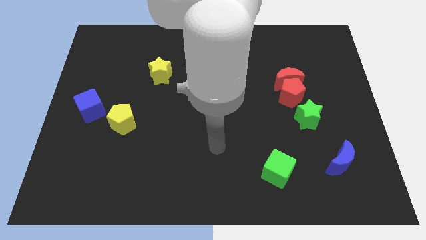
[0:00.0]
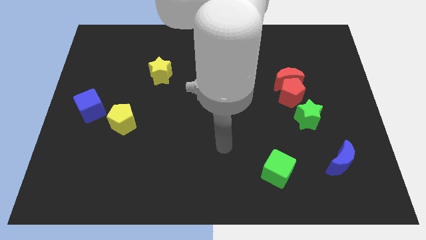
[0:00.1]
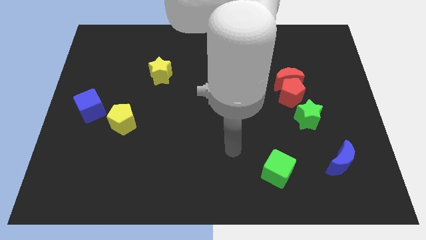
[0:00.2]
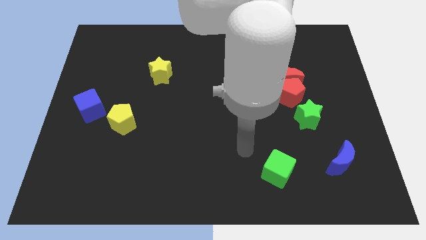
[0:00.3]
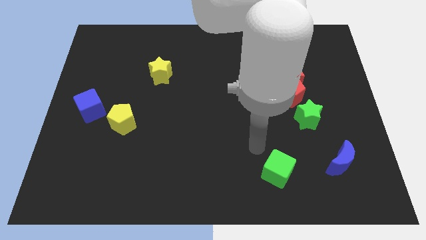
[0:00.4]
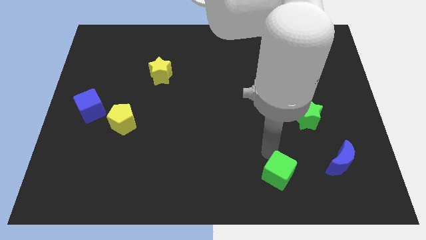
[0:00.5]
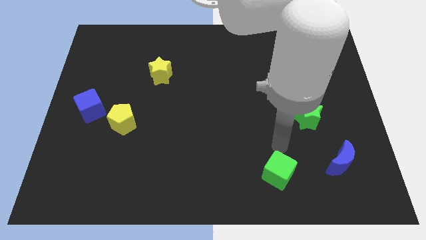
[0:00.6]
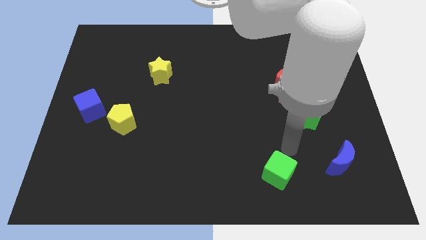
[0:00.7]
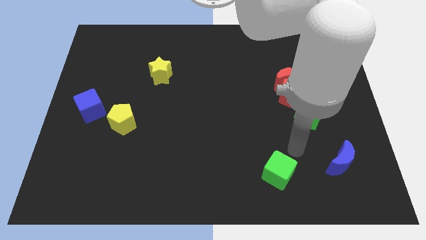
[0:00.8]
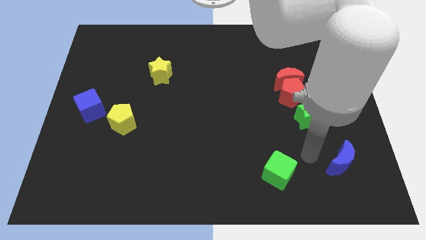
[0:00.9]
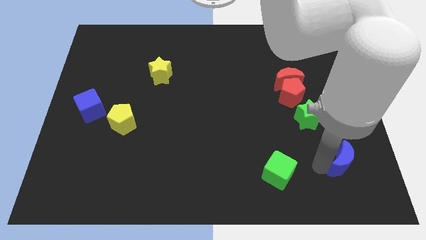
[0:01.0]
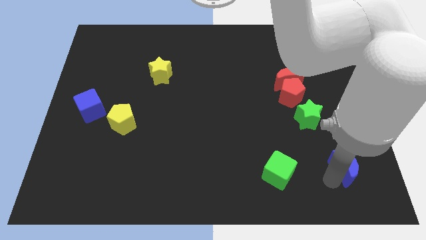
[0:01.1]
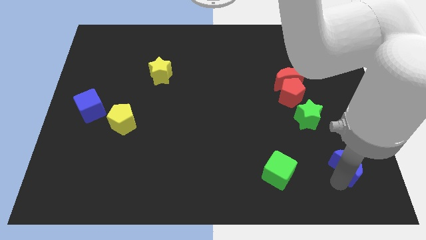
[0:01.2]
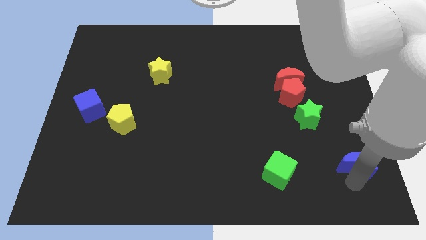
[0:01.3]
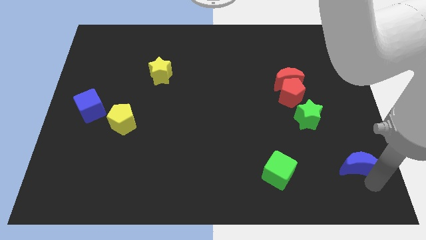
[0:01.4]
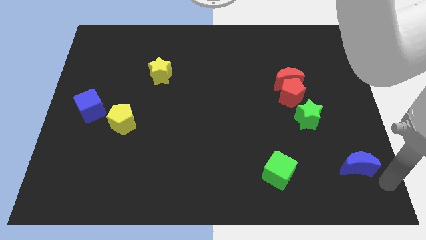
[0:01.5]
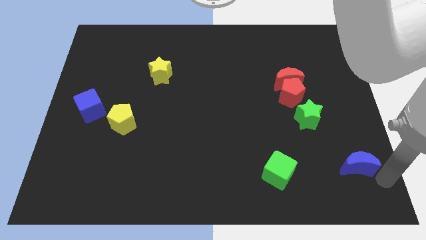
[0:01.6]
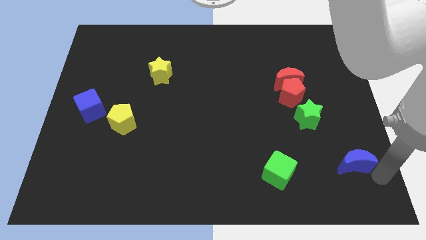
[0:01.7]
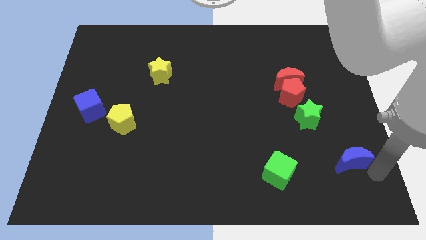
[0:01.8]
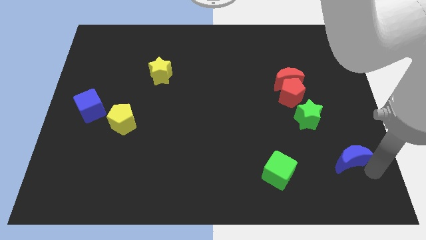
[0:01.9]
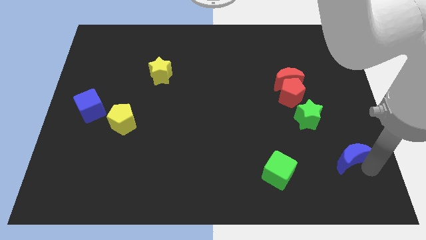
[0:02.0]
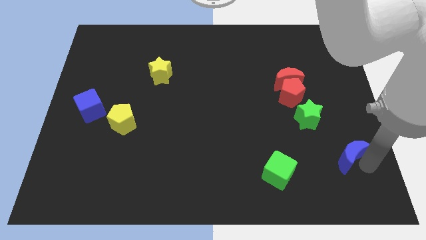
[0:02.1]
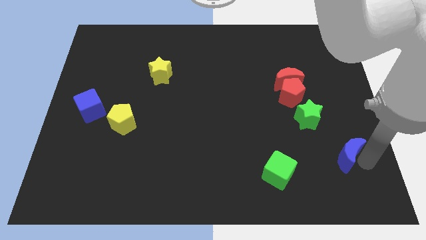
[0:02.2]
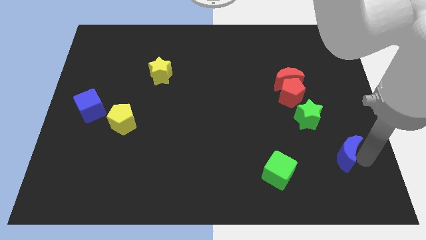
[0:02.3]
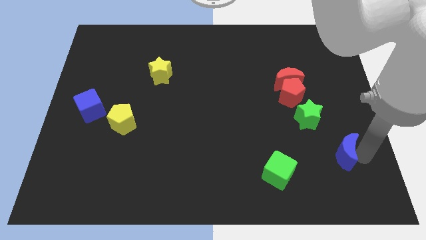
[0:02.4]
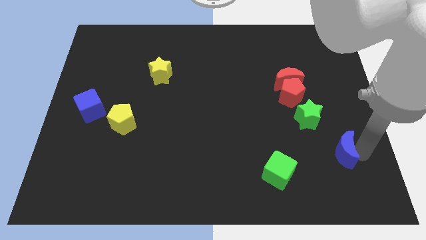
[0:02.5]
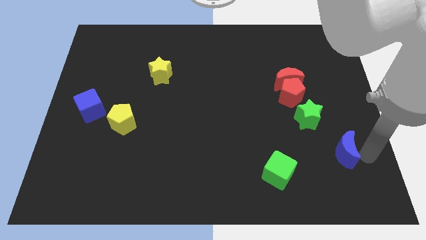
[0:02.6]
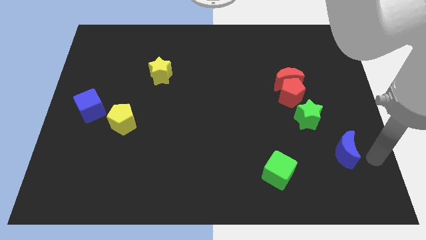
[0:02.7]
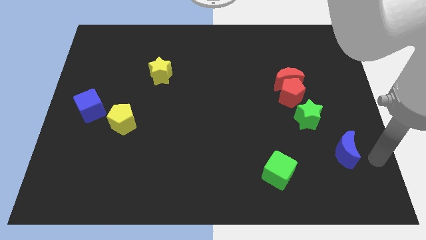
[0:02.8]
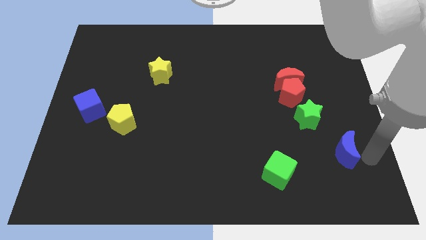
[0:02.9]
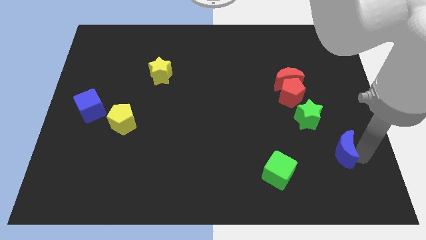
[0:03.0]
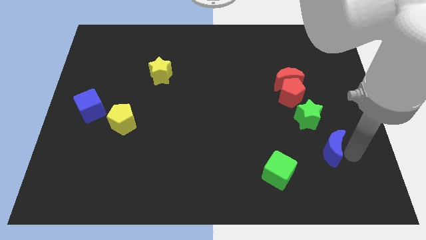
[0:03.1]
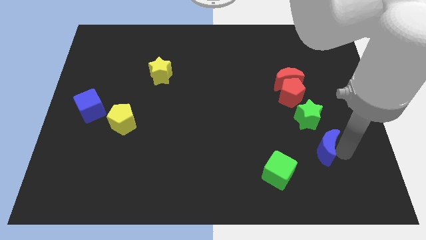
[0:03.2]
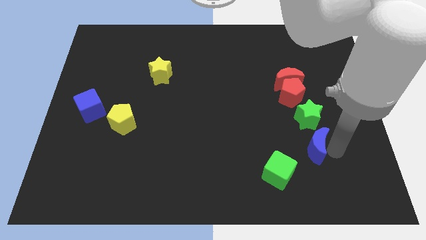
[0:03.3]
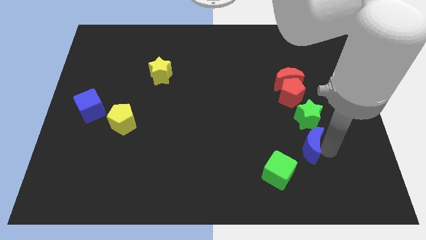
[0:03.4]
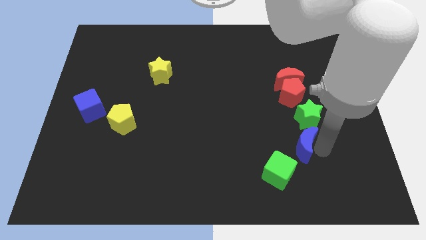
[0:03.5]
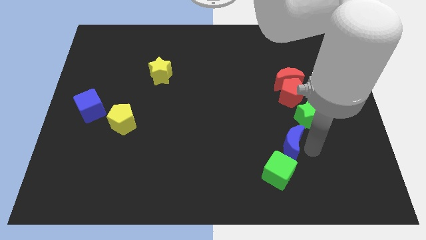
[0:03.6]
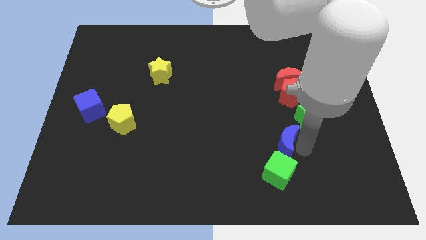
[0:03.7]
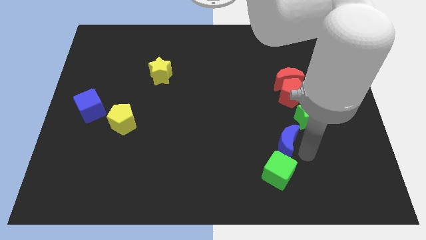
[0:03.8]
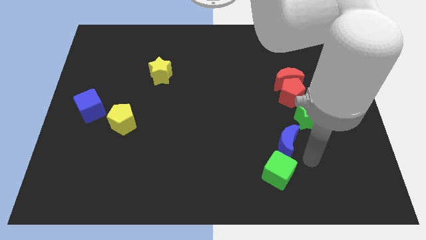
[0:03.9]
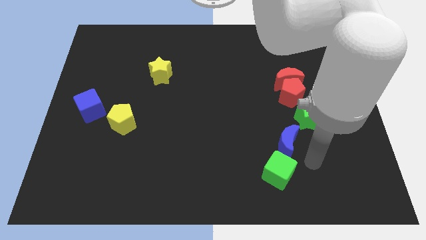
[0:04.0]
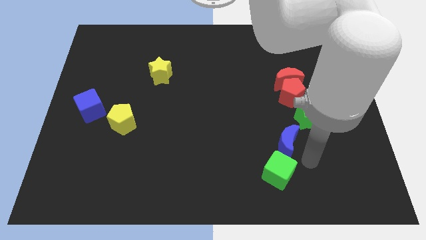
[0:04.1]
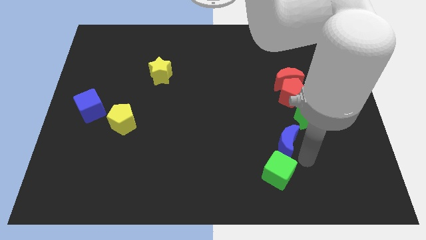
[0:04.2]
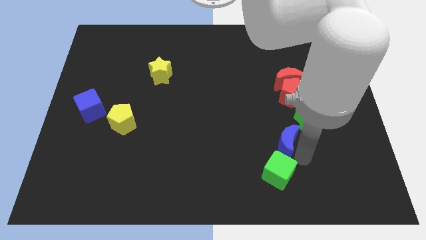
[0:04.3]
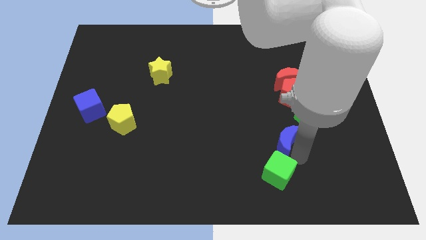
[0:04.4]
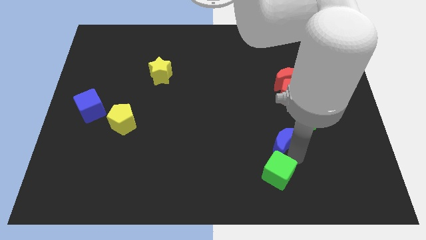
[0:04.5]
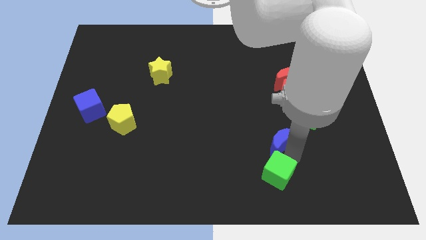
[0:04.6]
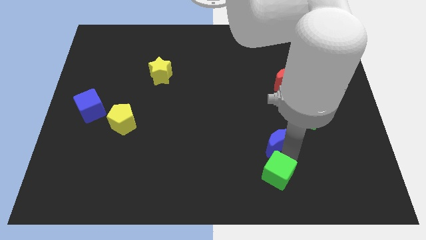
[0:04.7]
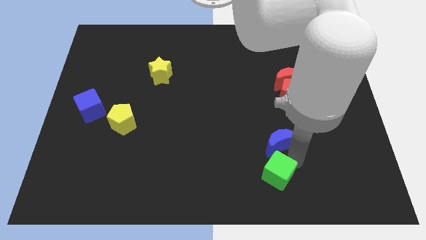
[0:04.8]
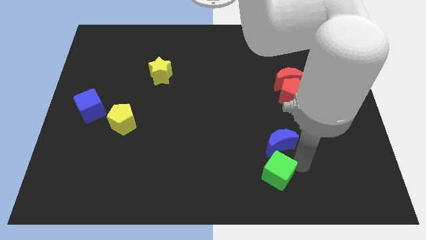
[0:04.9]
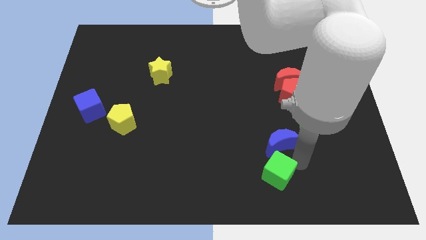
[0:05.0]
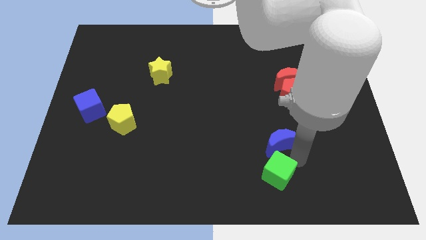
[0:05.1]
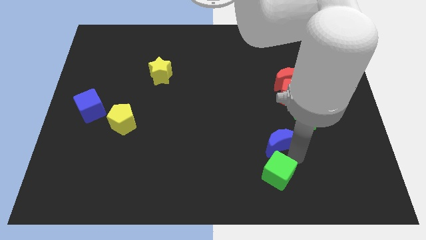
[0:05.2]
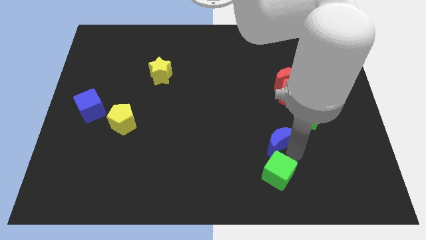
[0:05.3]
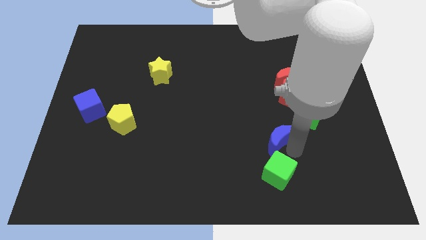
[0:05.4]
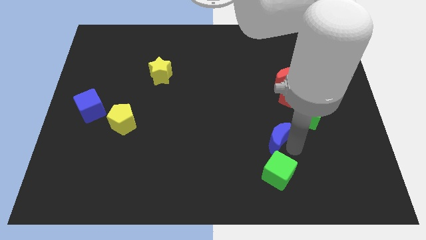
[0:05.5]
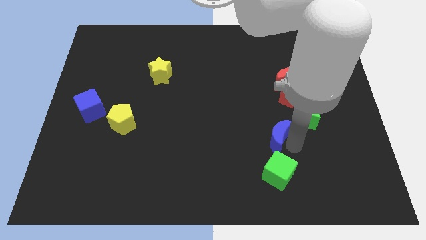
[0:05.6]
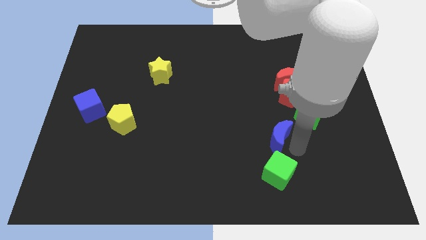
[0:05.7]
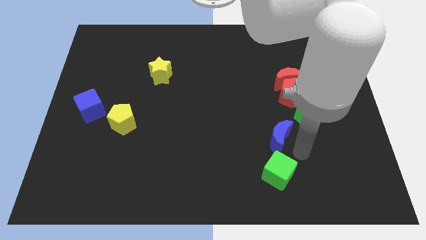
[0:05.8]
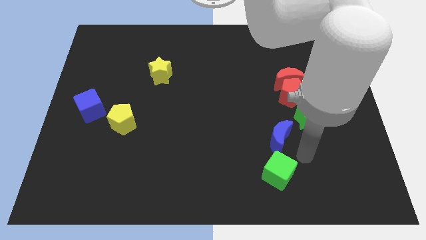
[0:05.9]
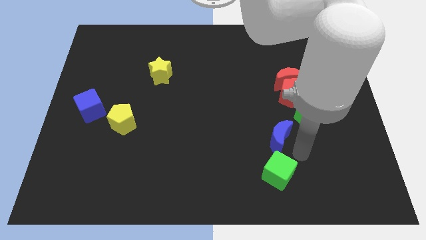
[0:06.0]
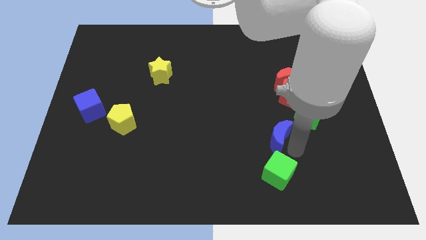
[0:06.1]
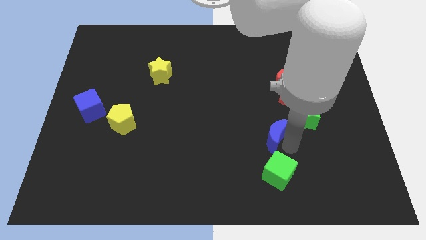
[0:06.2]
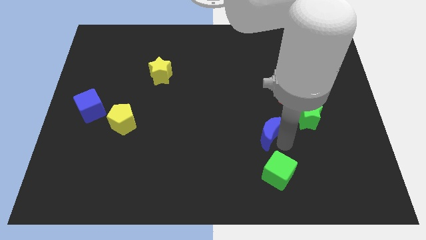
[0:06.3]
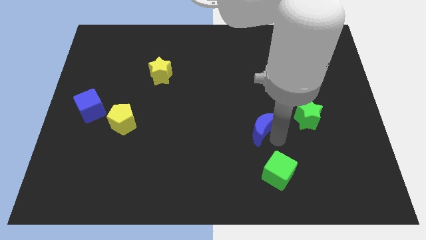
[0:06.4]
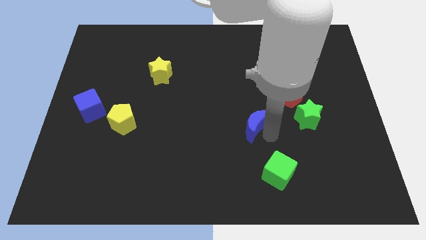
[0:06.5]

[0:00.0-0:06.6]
push the blue moon to the middle
